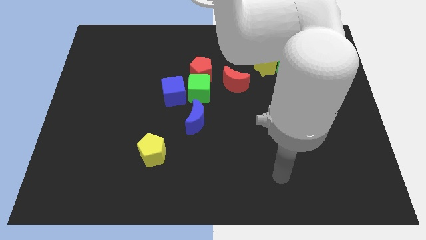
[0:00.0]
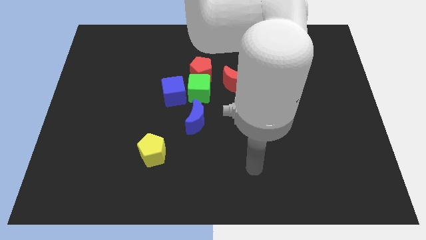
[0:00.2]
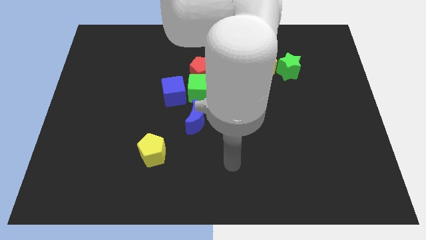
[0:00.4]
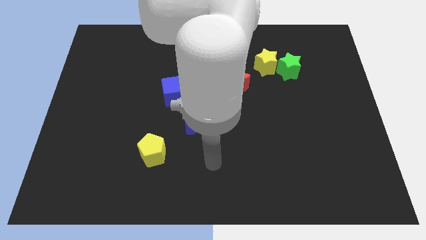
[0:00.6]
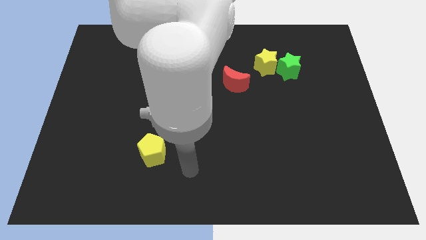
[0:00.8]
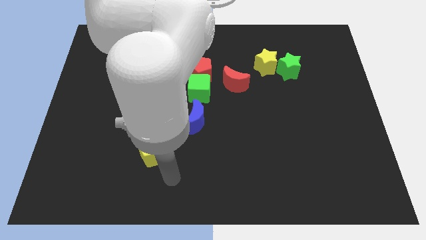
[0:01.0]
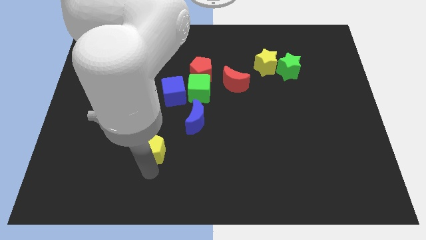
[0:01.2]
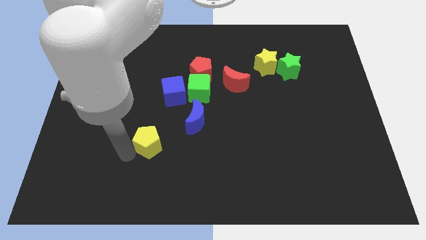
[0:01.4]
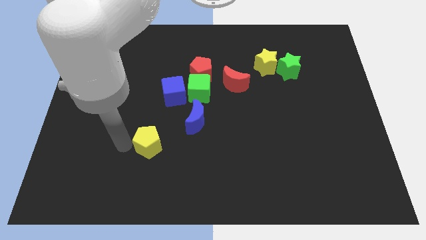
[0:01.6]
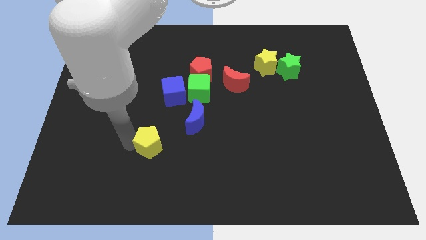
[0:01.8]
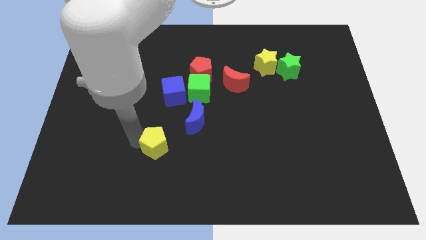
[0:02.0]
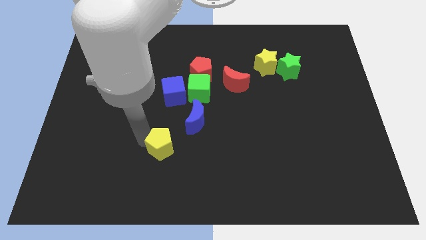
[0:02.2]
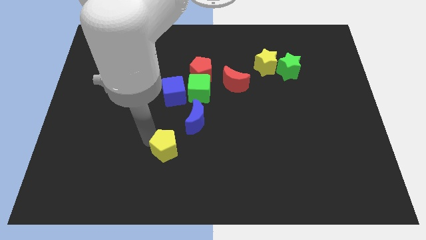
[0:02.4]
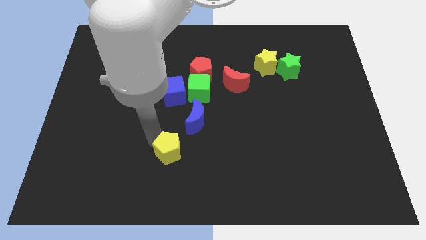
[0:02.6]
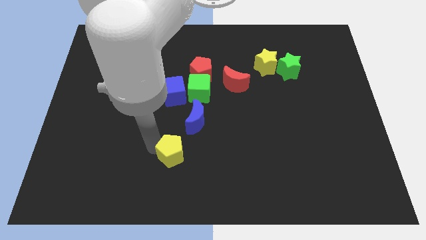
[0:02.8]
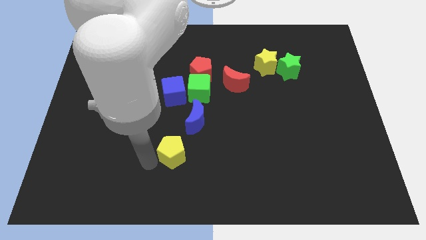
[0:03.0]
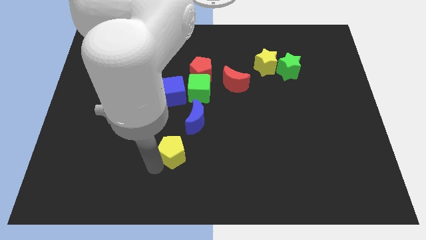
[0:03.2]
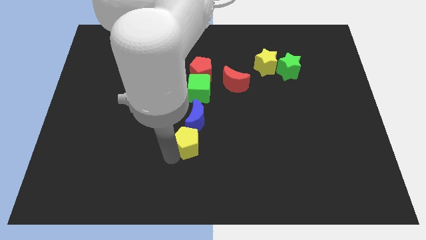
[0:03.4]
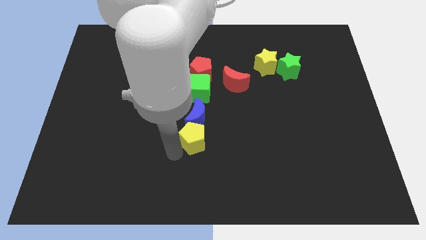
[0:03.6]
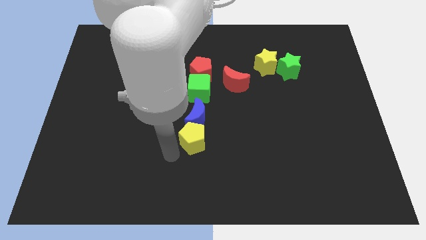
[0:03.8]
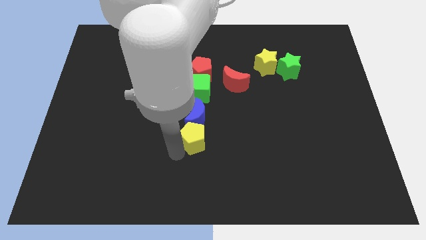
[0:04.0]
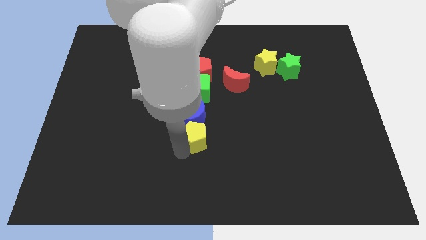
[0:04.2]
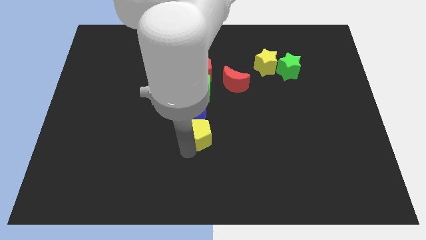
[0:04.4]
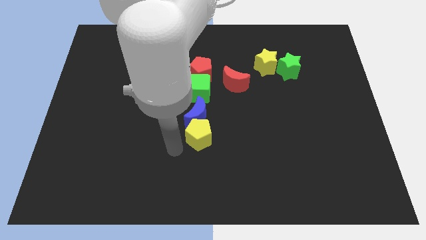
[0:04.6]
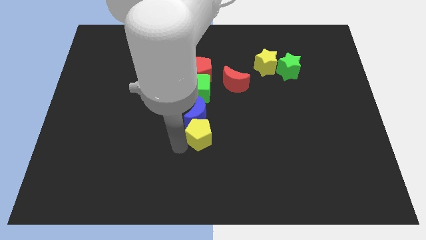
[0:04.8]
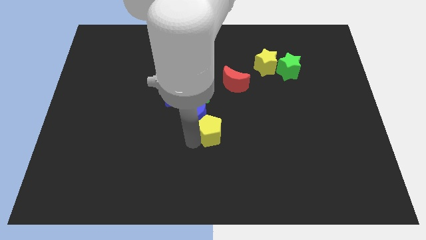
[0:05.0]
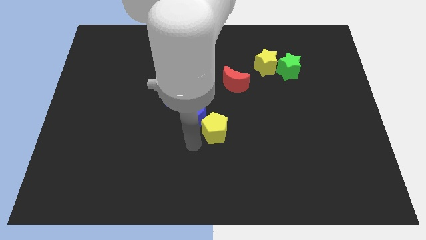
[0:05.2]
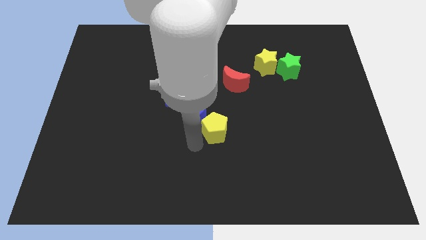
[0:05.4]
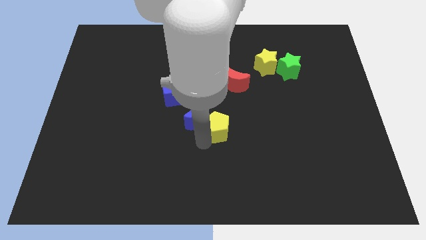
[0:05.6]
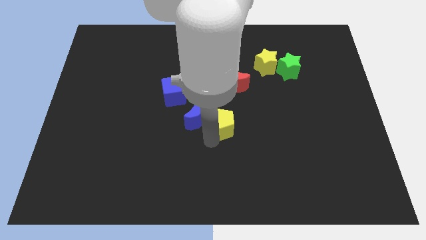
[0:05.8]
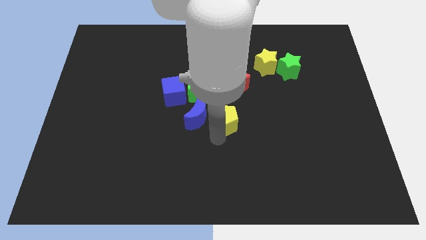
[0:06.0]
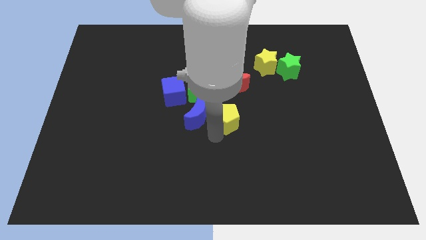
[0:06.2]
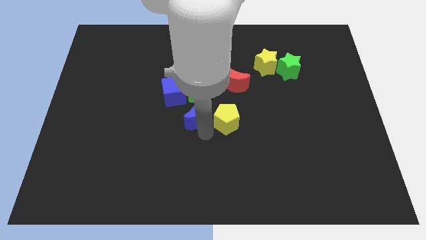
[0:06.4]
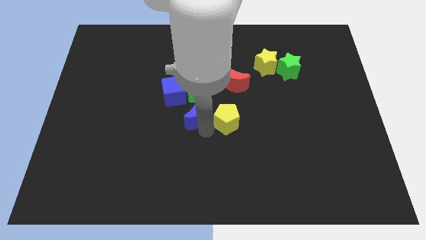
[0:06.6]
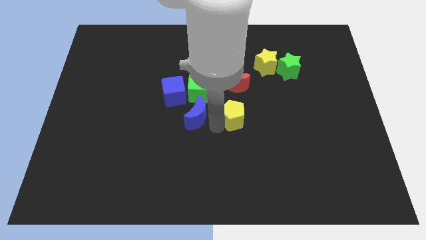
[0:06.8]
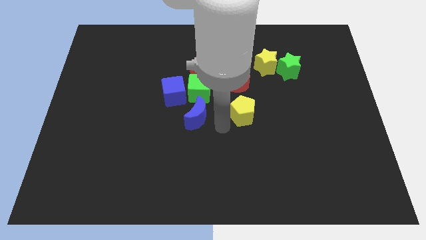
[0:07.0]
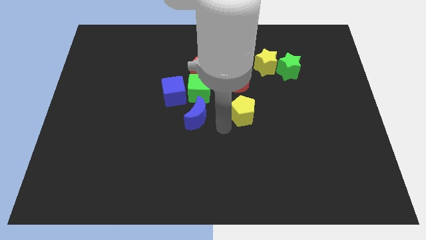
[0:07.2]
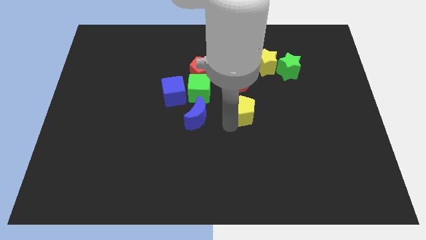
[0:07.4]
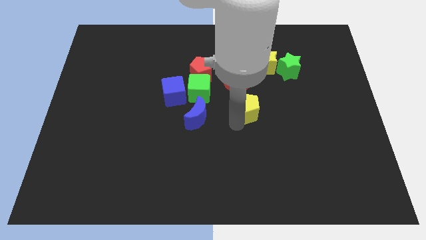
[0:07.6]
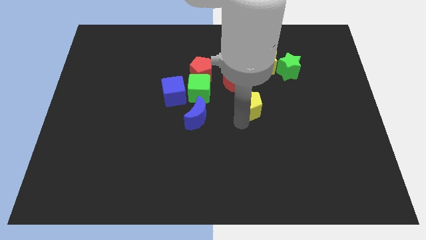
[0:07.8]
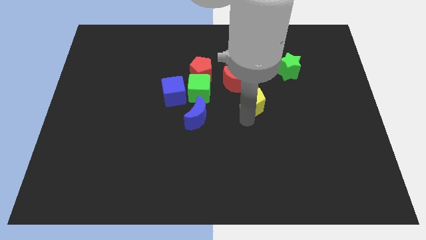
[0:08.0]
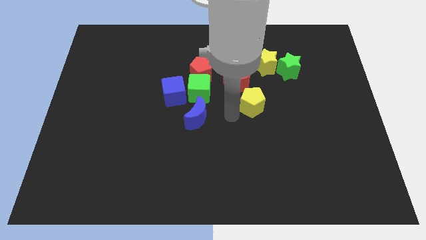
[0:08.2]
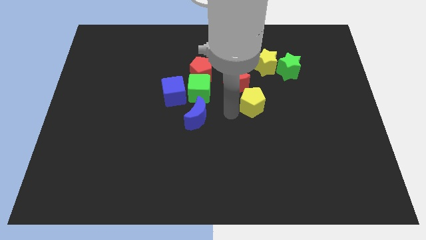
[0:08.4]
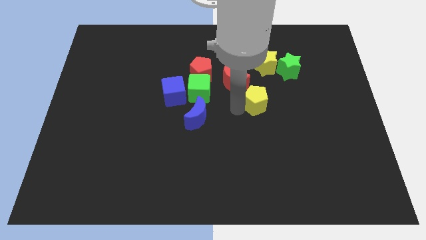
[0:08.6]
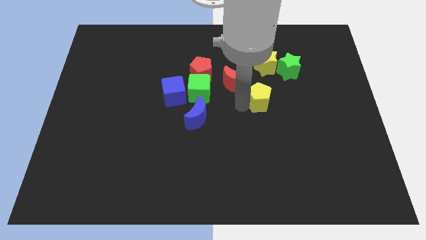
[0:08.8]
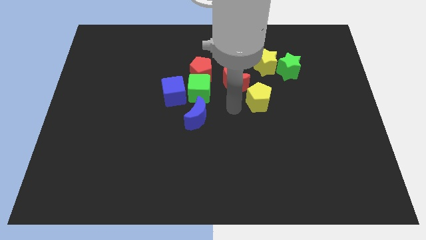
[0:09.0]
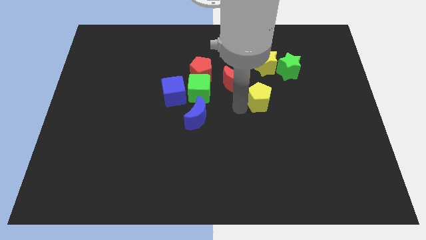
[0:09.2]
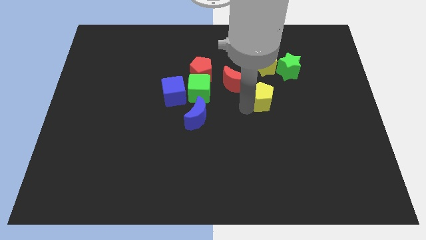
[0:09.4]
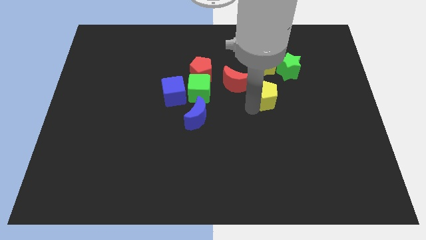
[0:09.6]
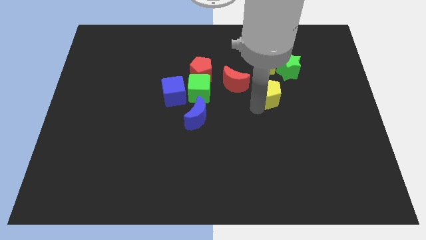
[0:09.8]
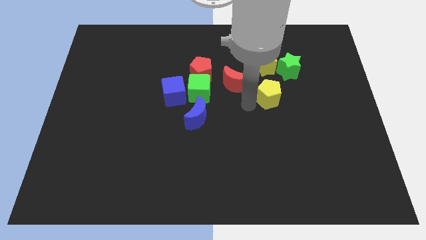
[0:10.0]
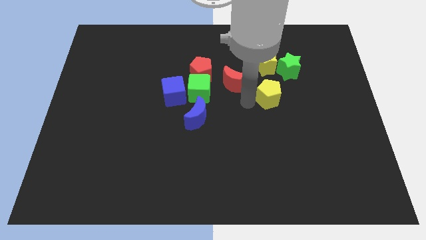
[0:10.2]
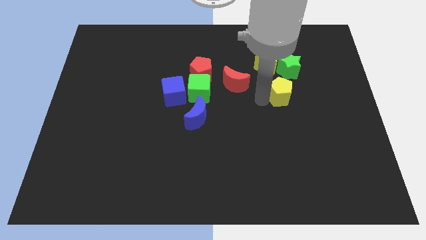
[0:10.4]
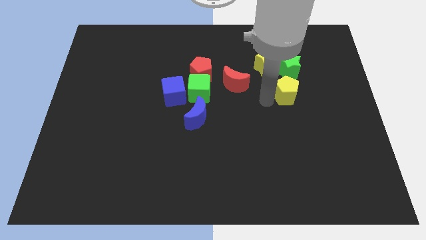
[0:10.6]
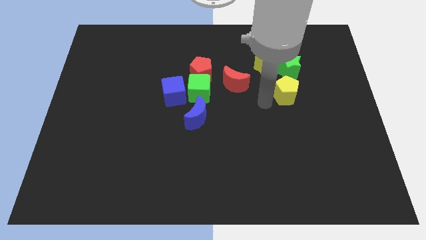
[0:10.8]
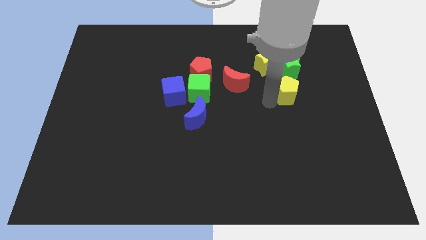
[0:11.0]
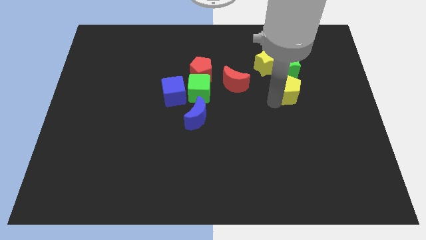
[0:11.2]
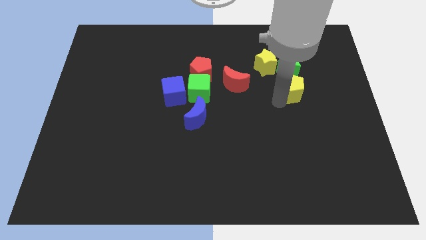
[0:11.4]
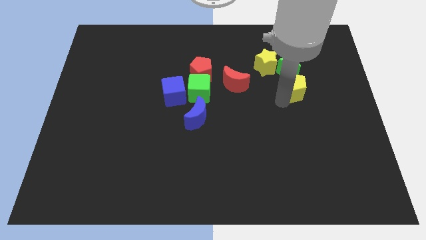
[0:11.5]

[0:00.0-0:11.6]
move the yellow pentagon to the bottom right side of the green star

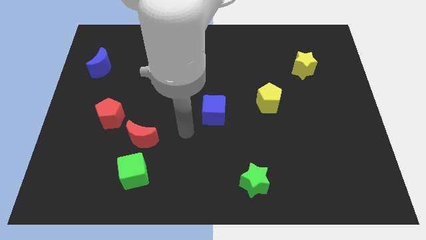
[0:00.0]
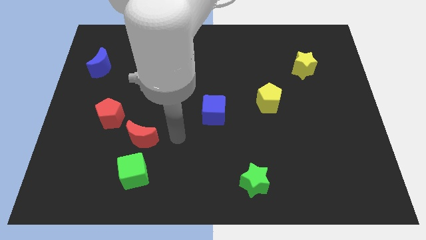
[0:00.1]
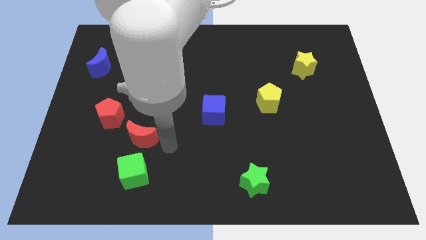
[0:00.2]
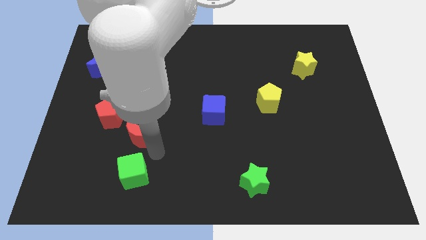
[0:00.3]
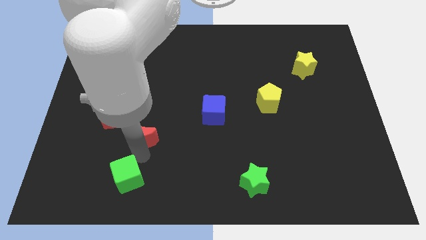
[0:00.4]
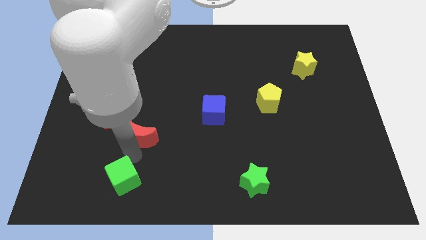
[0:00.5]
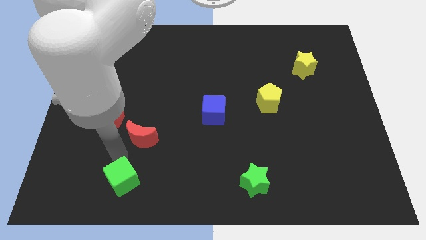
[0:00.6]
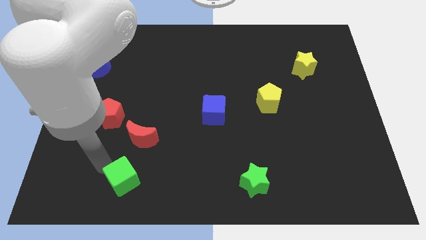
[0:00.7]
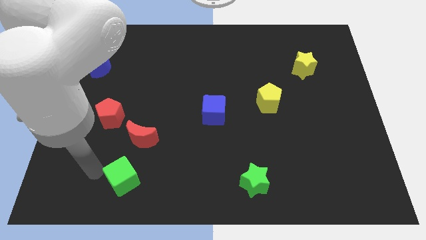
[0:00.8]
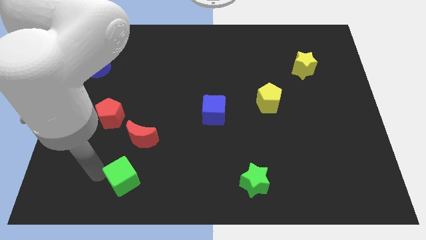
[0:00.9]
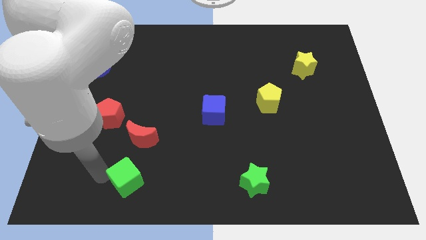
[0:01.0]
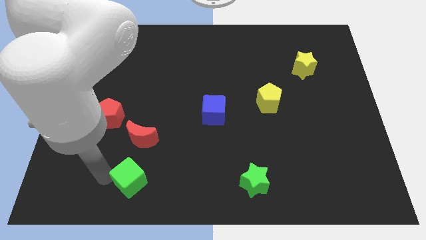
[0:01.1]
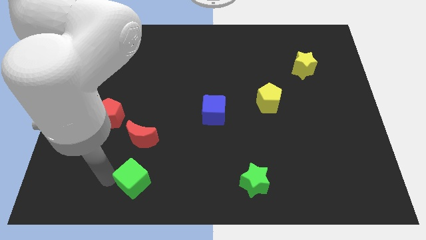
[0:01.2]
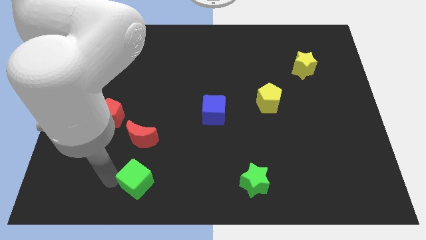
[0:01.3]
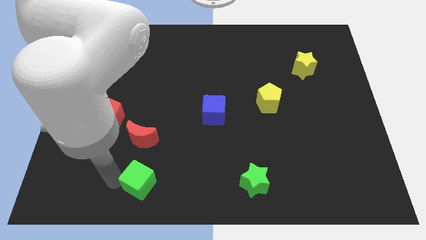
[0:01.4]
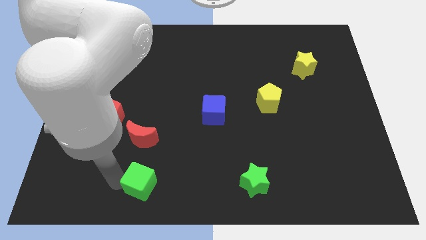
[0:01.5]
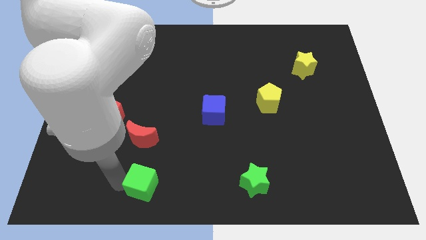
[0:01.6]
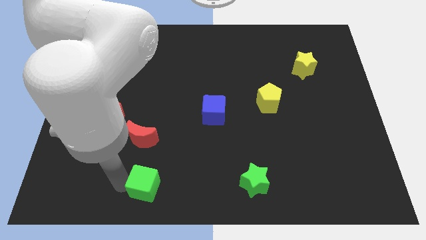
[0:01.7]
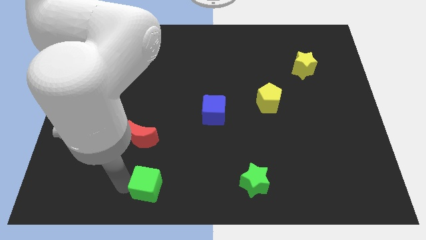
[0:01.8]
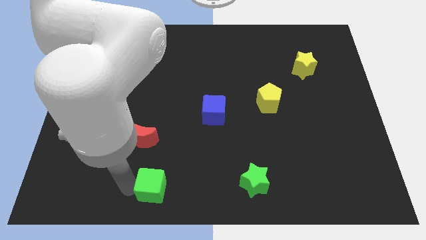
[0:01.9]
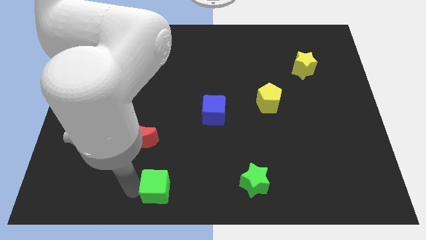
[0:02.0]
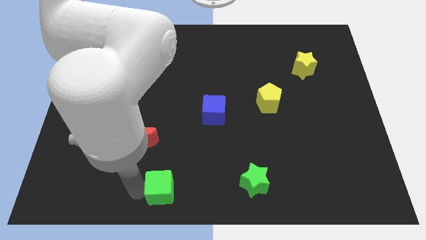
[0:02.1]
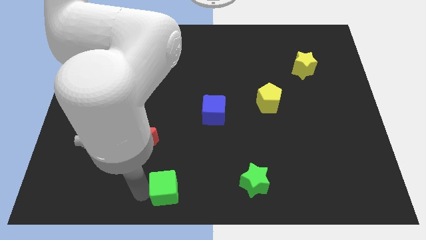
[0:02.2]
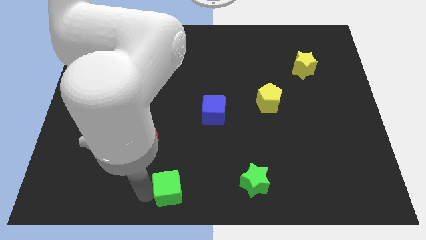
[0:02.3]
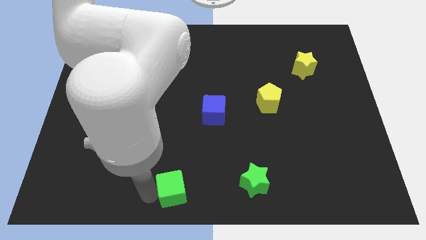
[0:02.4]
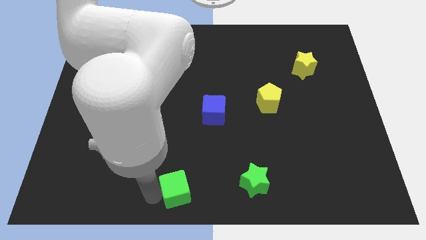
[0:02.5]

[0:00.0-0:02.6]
push the green cube left of the green star
